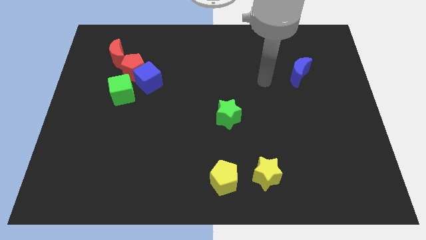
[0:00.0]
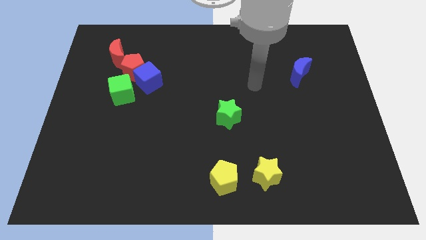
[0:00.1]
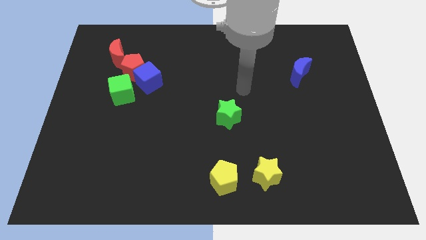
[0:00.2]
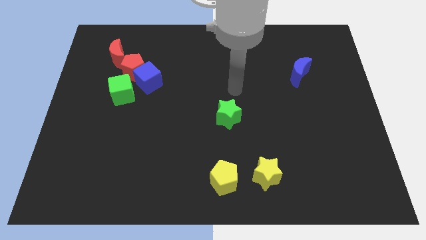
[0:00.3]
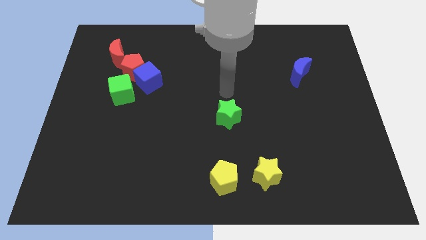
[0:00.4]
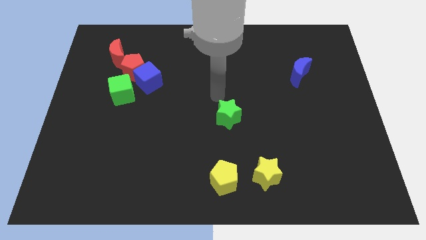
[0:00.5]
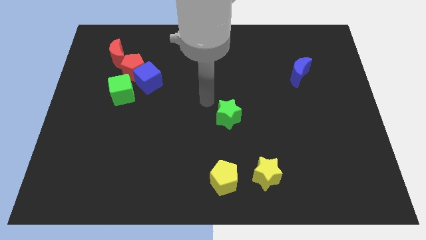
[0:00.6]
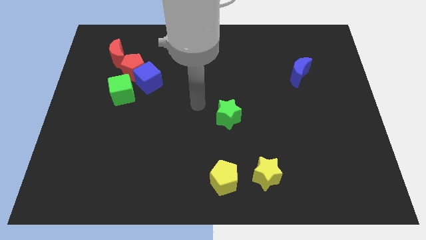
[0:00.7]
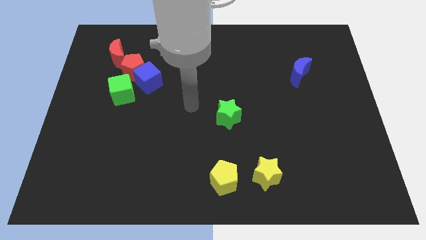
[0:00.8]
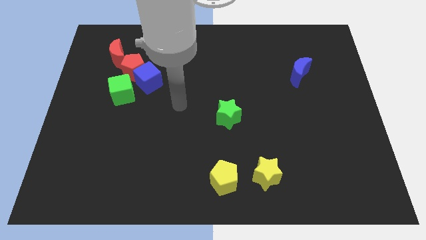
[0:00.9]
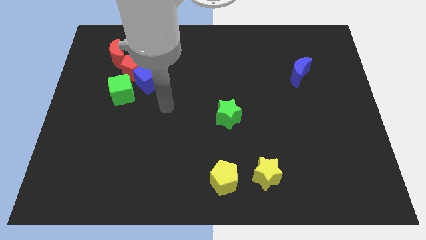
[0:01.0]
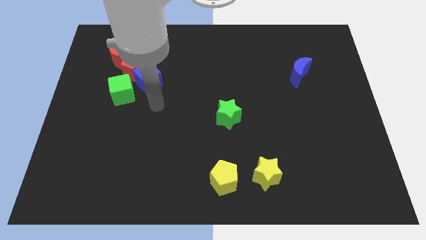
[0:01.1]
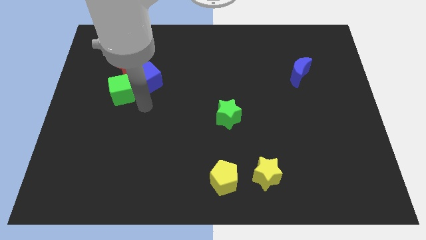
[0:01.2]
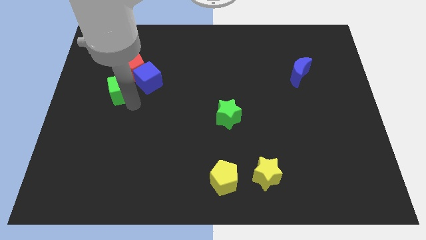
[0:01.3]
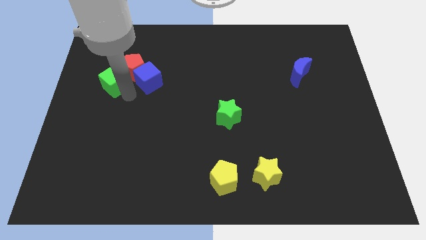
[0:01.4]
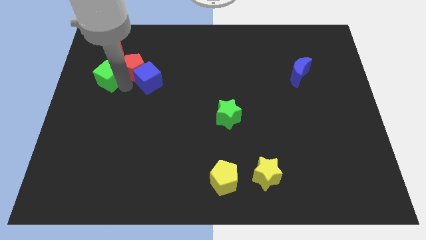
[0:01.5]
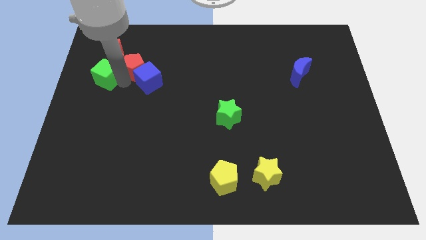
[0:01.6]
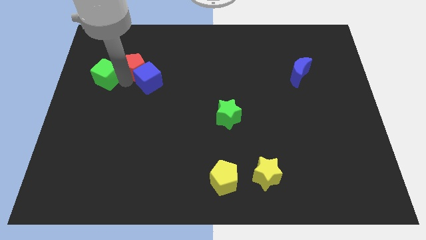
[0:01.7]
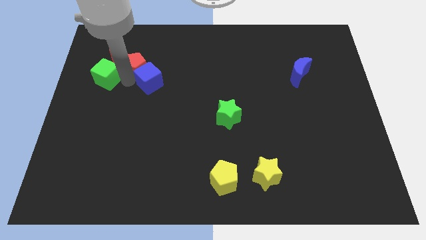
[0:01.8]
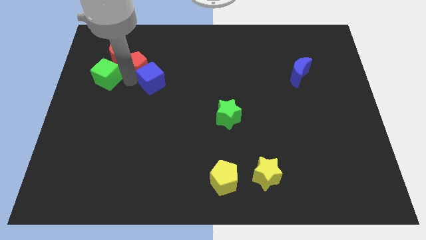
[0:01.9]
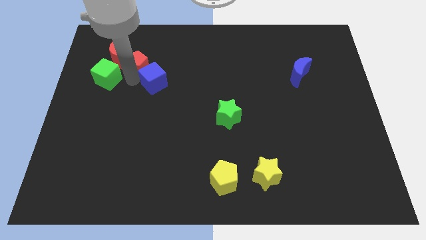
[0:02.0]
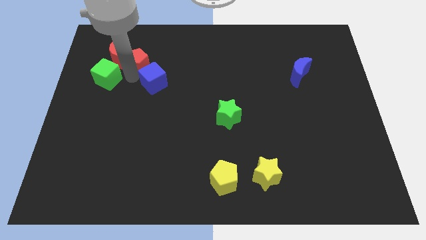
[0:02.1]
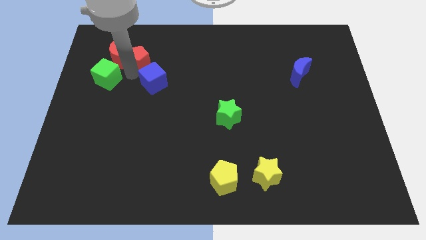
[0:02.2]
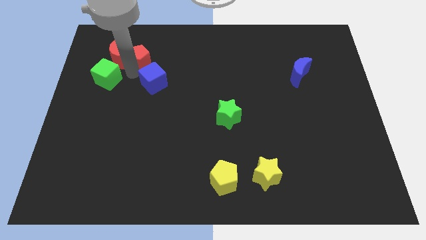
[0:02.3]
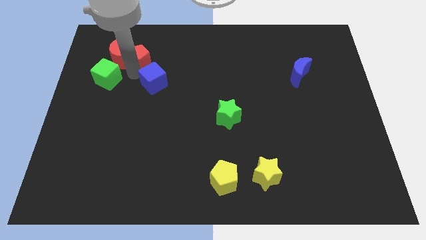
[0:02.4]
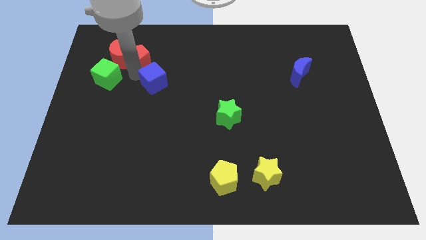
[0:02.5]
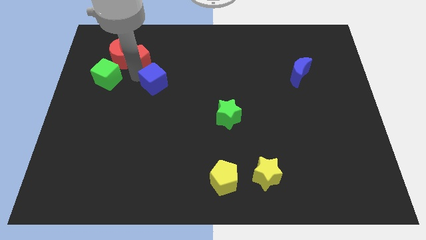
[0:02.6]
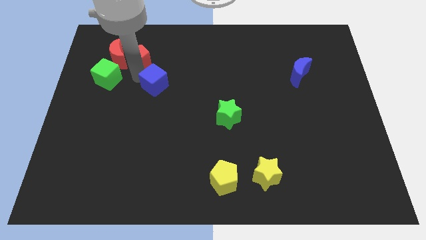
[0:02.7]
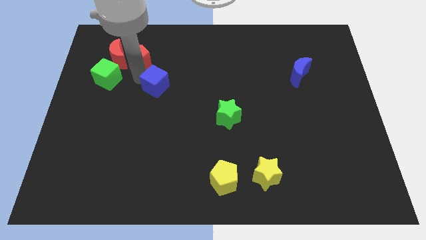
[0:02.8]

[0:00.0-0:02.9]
pull the blue cube apart from the red pentagon and green cube

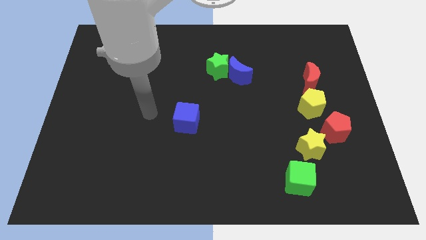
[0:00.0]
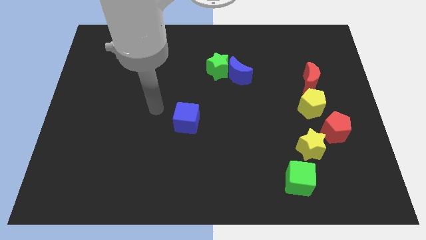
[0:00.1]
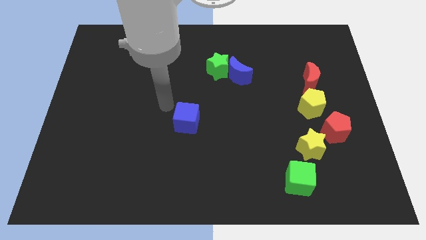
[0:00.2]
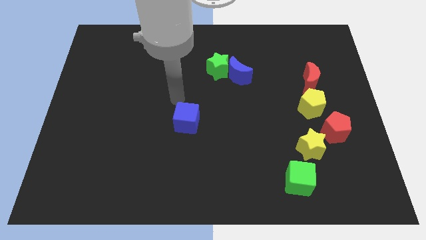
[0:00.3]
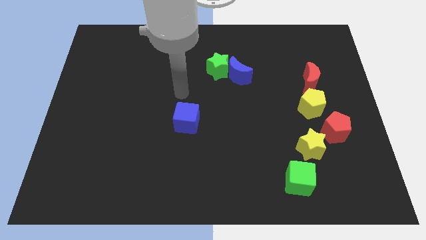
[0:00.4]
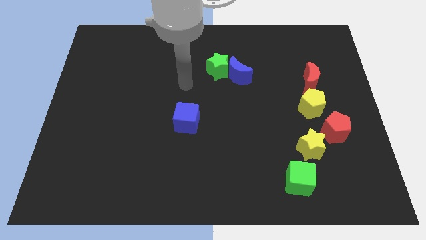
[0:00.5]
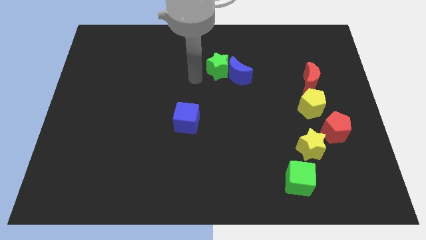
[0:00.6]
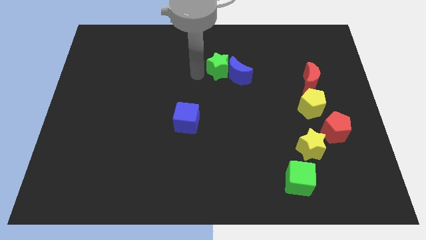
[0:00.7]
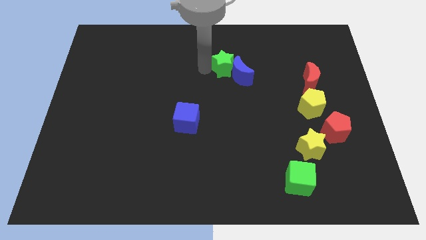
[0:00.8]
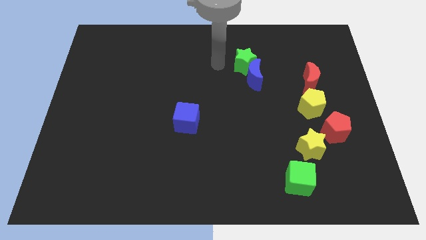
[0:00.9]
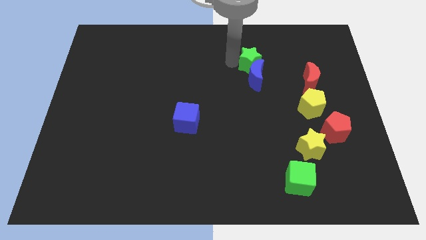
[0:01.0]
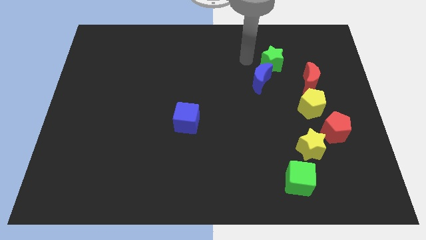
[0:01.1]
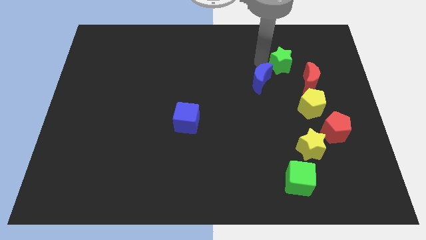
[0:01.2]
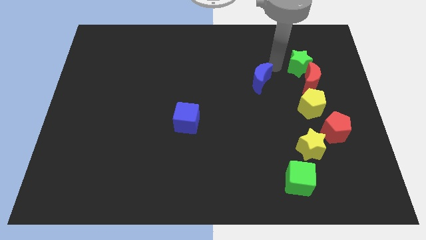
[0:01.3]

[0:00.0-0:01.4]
move the blue moon away from the green star

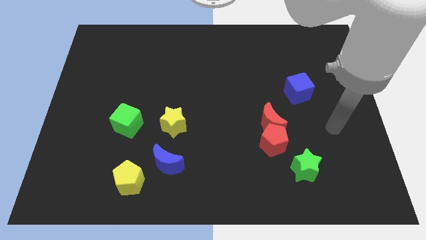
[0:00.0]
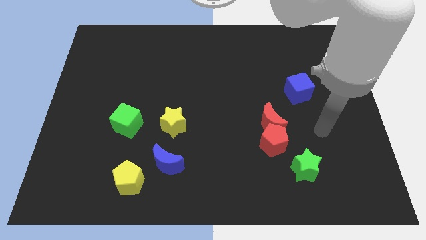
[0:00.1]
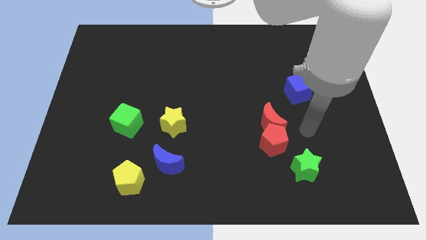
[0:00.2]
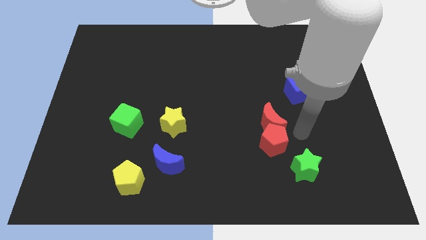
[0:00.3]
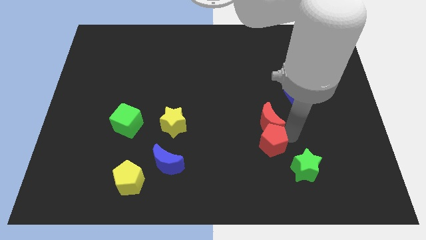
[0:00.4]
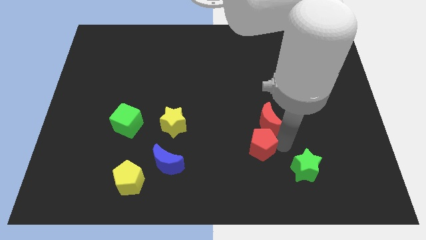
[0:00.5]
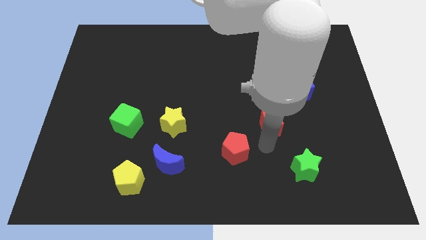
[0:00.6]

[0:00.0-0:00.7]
pull the red moon apart from the red pentagon

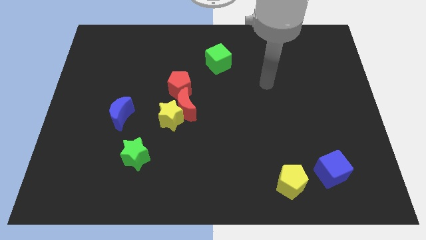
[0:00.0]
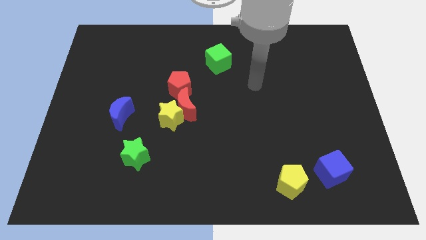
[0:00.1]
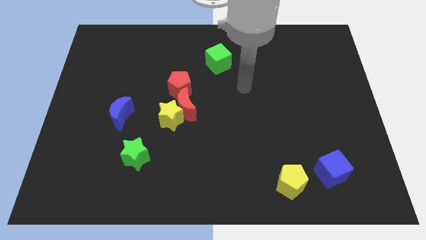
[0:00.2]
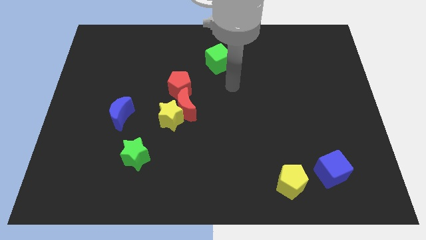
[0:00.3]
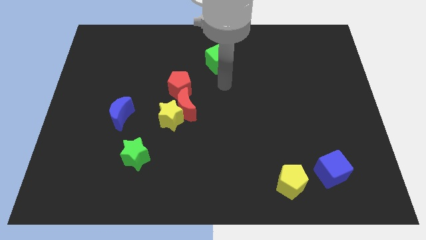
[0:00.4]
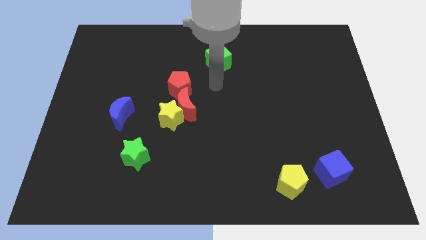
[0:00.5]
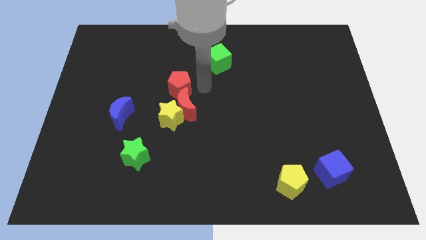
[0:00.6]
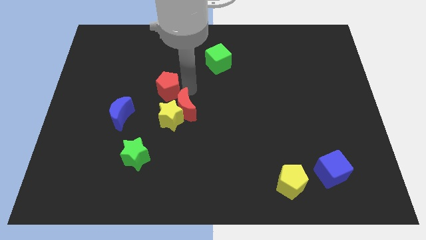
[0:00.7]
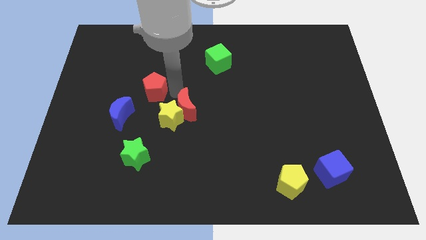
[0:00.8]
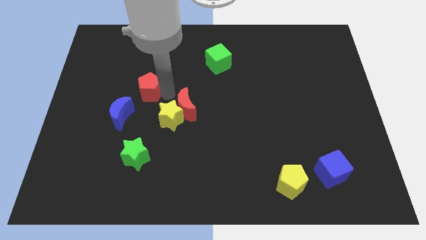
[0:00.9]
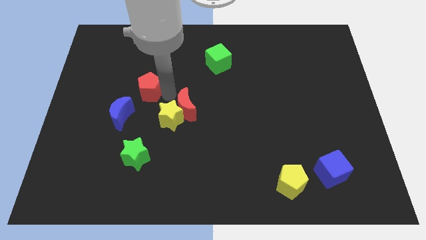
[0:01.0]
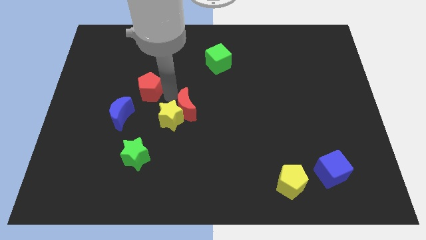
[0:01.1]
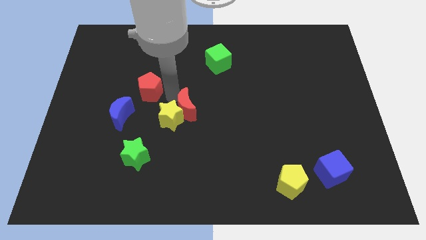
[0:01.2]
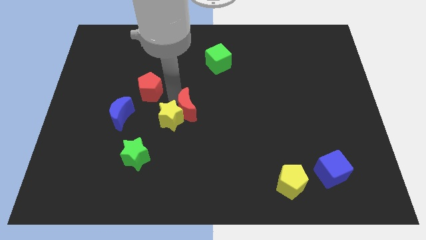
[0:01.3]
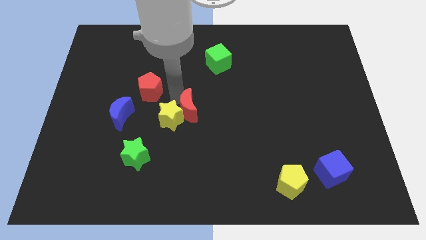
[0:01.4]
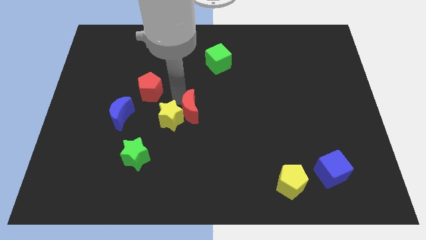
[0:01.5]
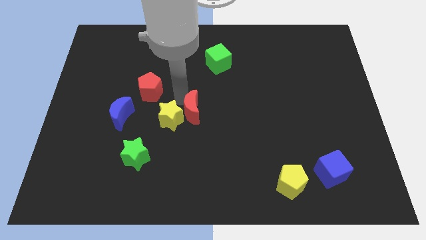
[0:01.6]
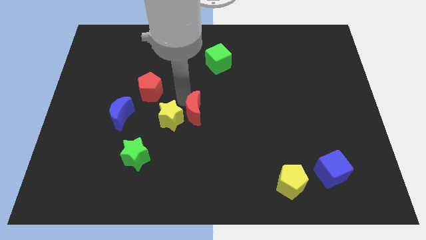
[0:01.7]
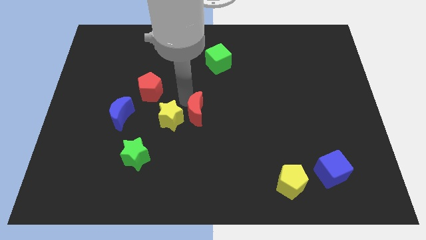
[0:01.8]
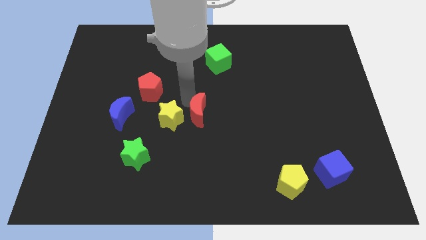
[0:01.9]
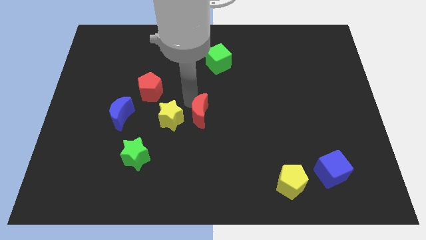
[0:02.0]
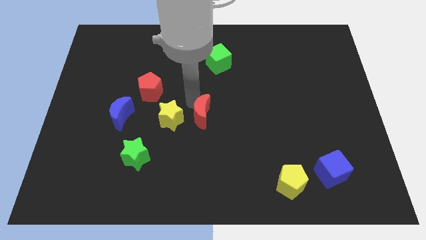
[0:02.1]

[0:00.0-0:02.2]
move the red moon away from the yellow star and red pentagon

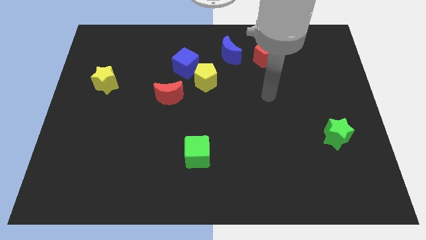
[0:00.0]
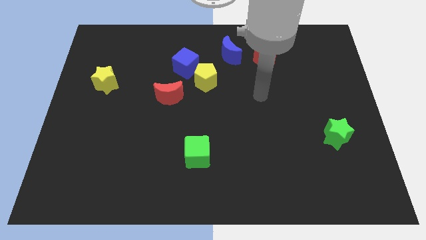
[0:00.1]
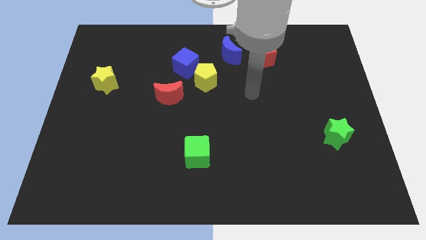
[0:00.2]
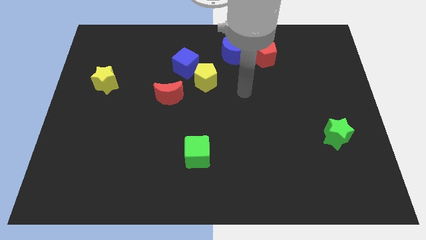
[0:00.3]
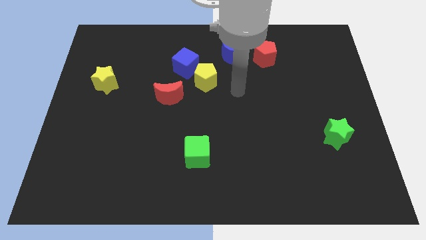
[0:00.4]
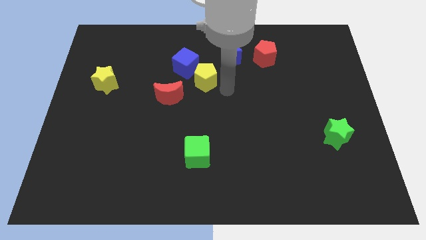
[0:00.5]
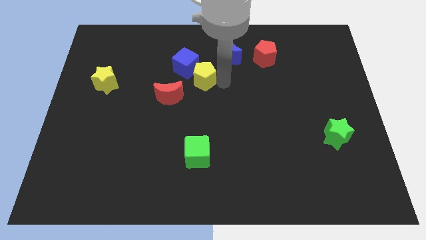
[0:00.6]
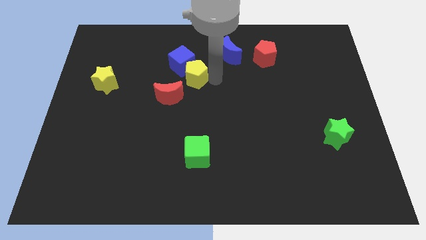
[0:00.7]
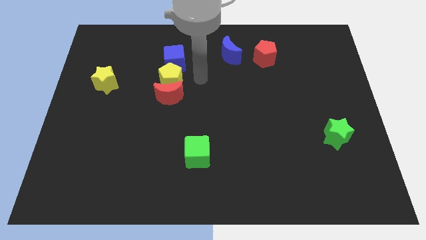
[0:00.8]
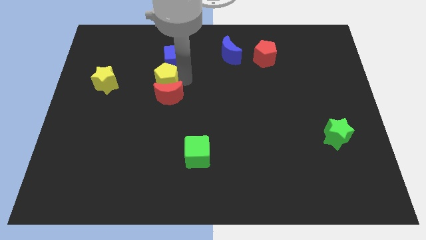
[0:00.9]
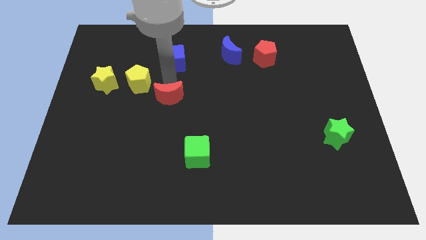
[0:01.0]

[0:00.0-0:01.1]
pull the blue cube apart from the yellow pentagon

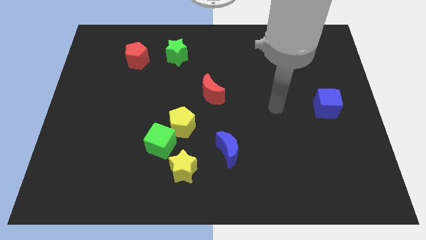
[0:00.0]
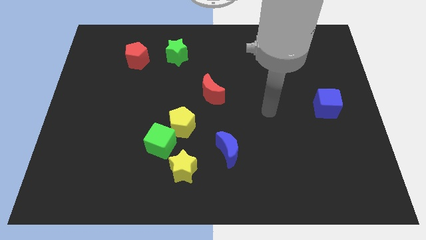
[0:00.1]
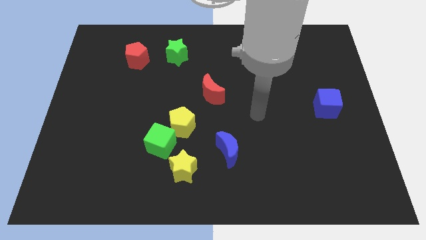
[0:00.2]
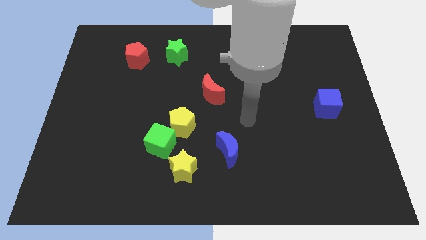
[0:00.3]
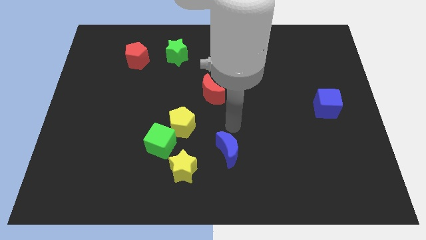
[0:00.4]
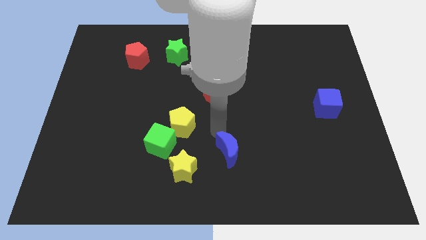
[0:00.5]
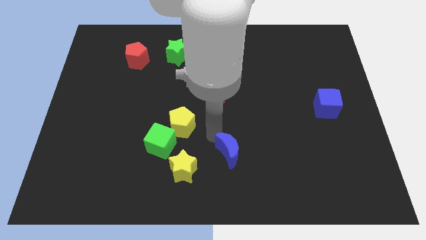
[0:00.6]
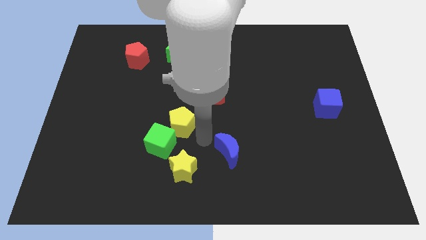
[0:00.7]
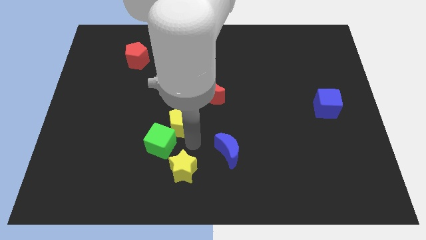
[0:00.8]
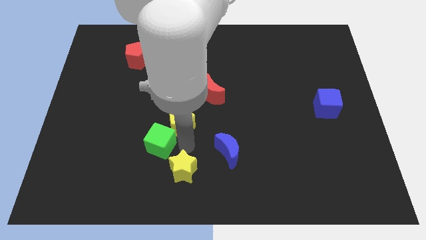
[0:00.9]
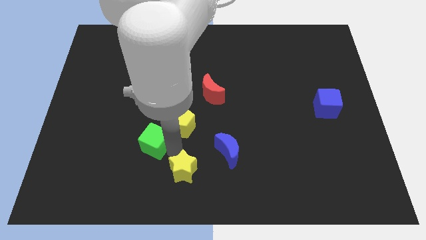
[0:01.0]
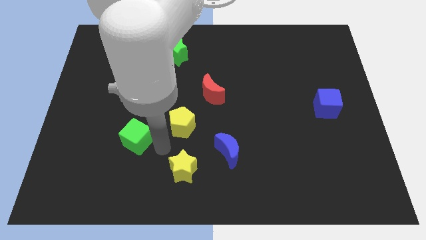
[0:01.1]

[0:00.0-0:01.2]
move the yellow pentagon away from the green cube
